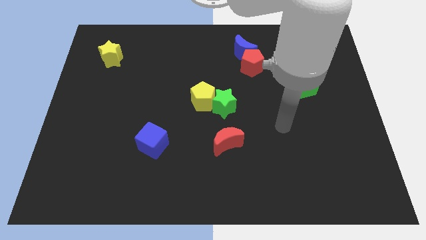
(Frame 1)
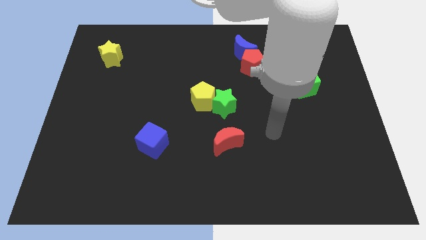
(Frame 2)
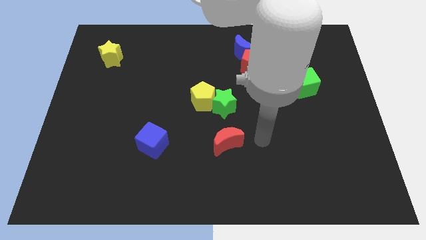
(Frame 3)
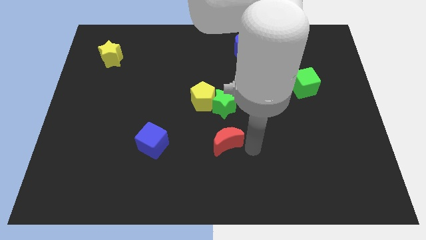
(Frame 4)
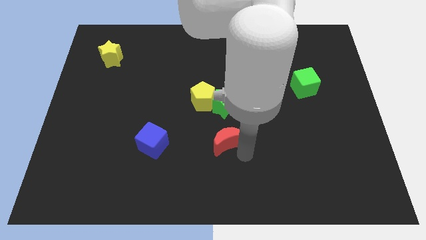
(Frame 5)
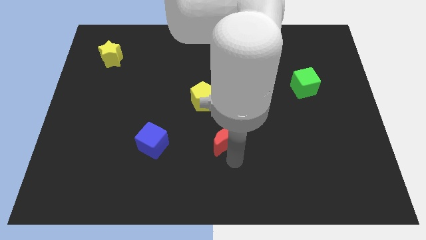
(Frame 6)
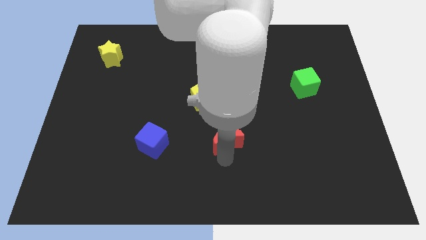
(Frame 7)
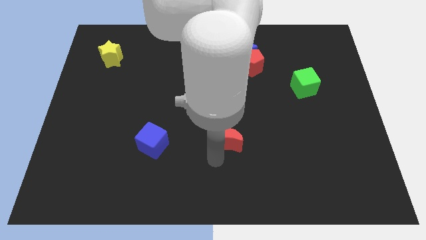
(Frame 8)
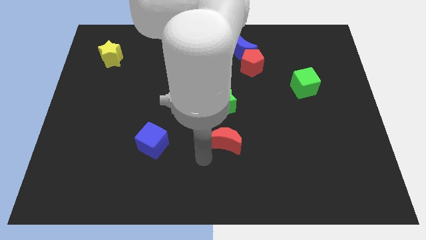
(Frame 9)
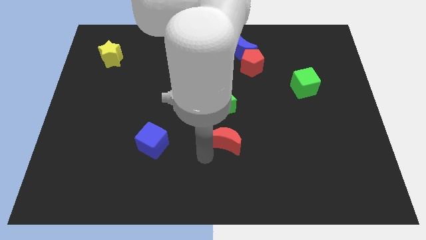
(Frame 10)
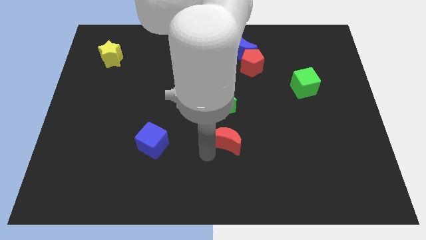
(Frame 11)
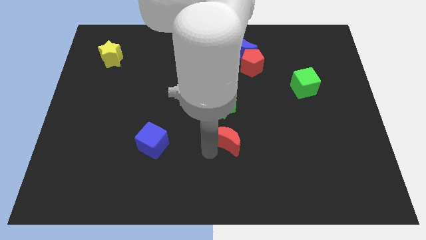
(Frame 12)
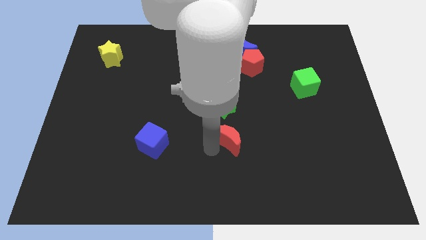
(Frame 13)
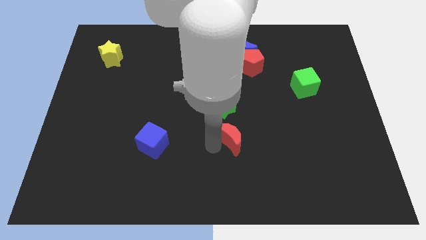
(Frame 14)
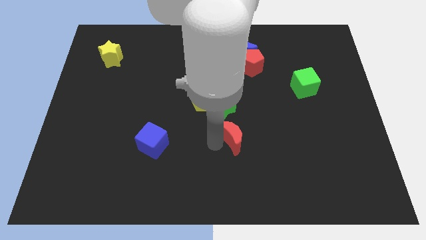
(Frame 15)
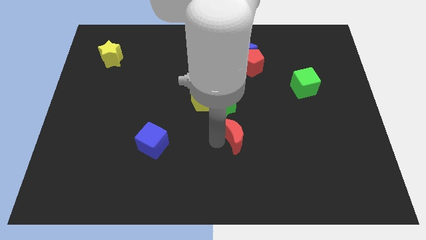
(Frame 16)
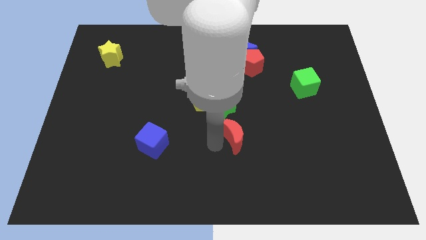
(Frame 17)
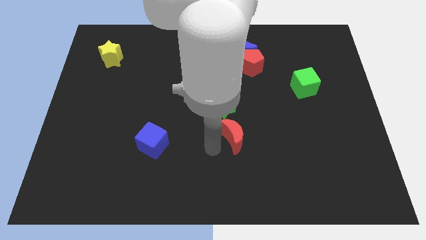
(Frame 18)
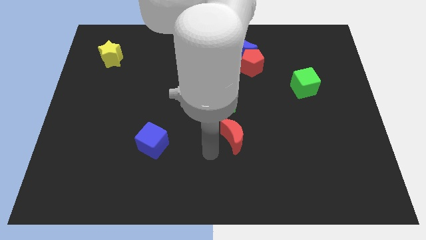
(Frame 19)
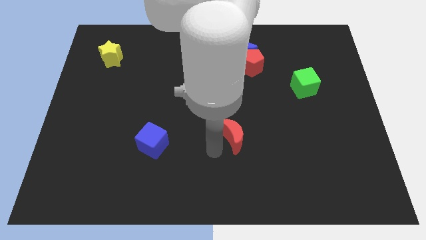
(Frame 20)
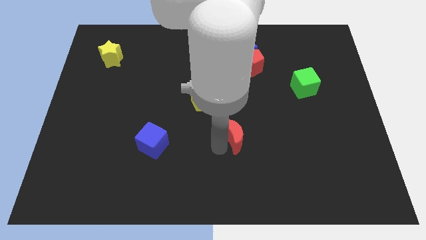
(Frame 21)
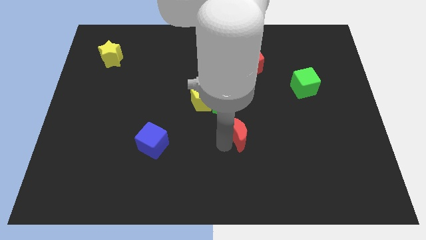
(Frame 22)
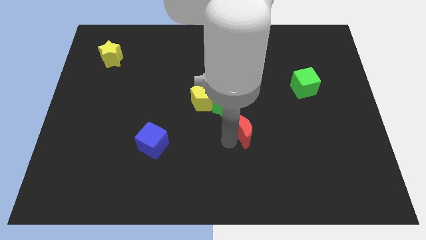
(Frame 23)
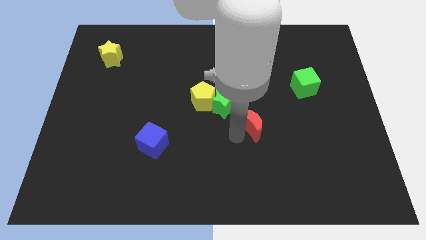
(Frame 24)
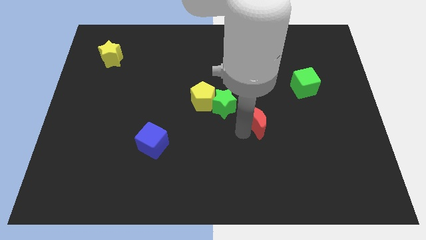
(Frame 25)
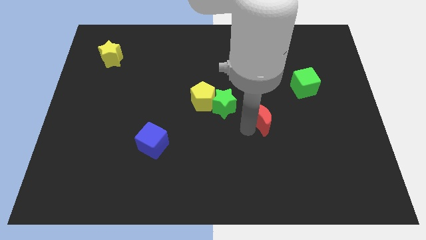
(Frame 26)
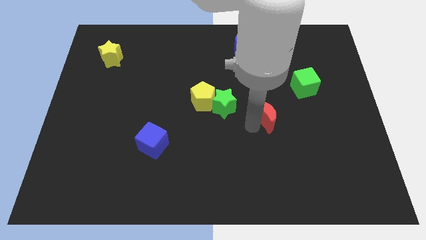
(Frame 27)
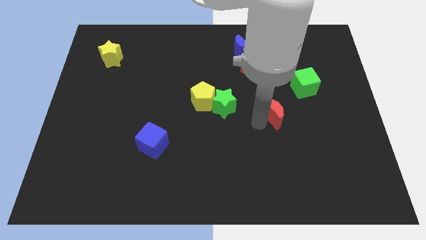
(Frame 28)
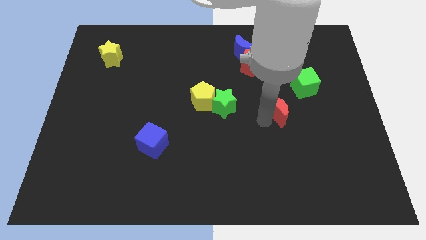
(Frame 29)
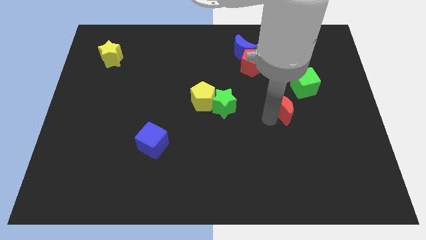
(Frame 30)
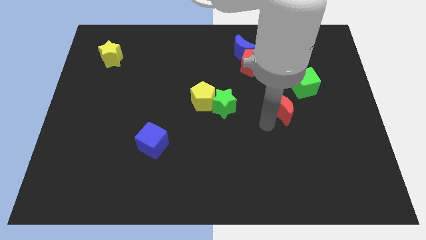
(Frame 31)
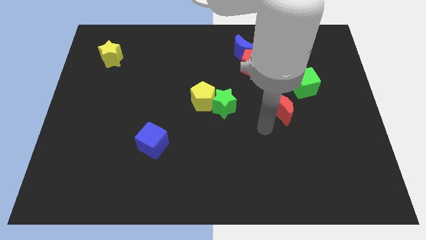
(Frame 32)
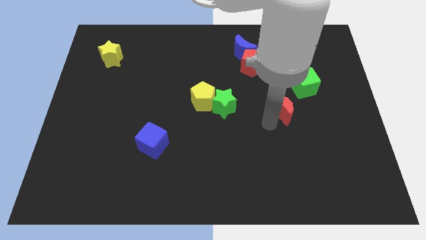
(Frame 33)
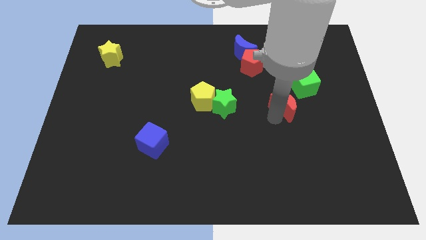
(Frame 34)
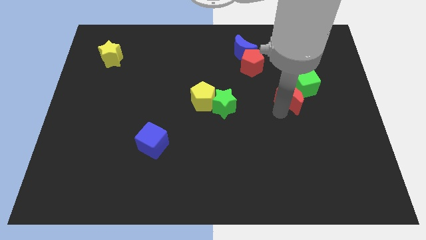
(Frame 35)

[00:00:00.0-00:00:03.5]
slide the red moon close to the green cube

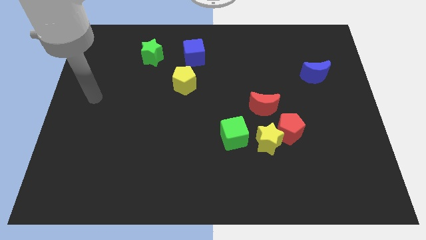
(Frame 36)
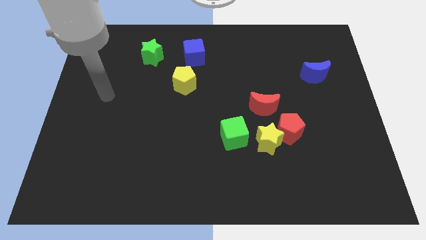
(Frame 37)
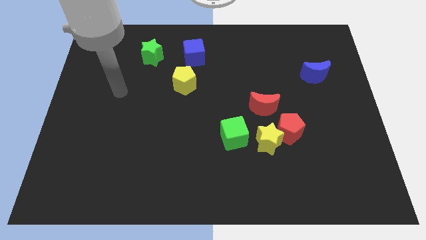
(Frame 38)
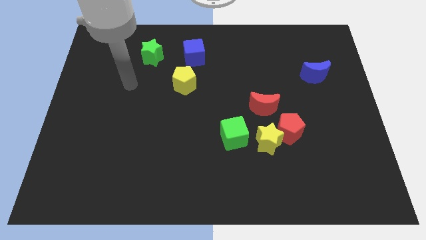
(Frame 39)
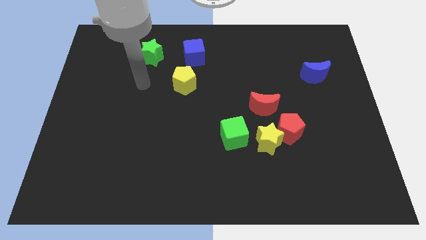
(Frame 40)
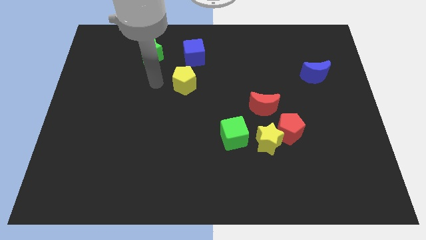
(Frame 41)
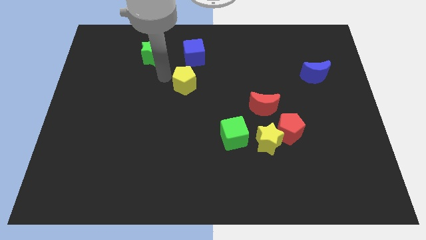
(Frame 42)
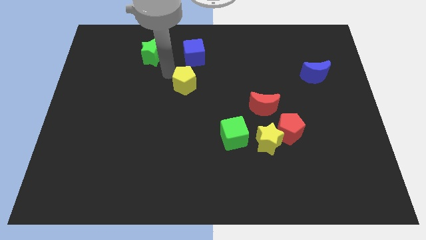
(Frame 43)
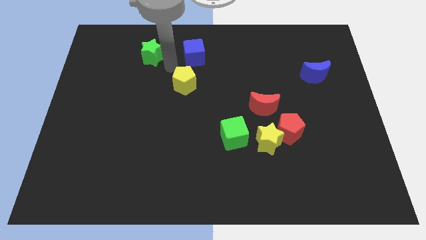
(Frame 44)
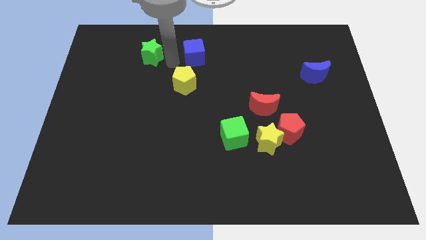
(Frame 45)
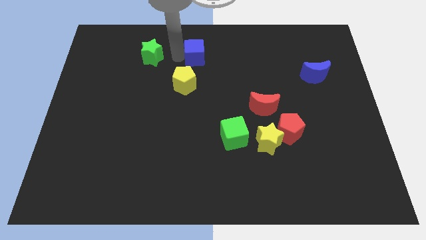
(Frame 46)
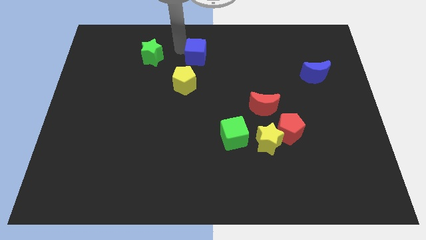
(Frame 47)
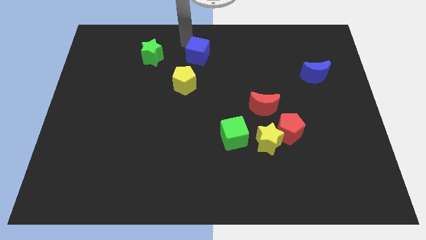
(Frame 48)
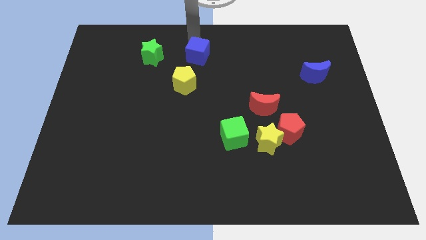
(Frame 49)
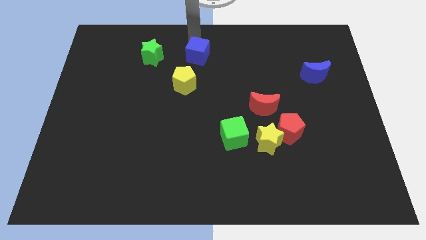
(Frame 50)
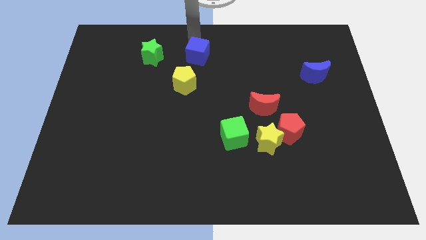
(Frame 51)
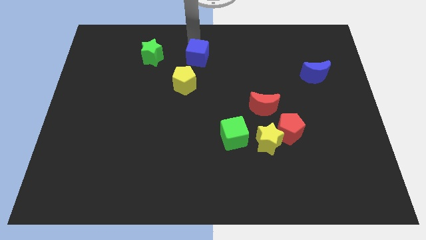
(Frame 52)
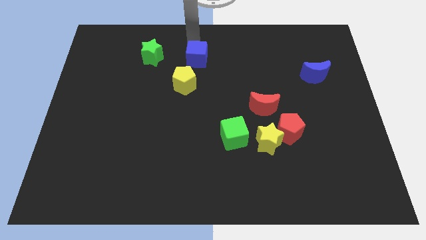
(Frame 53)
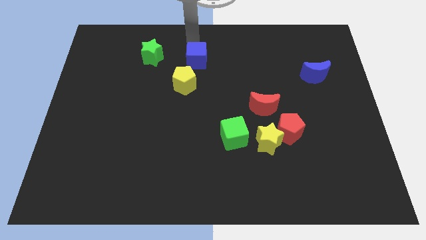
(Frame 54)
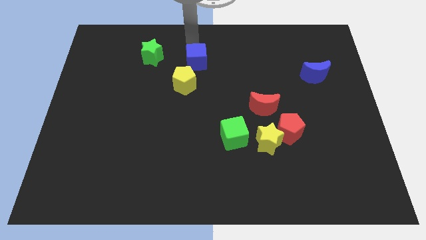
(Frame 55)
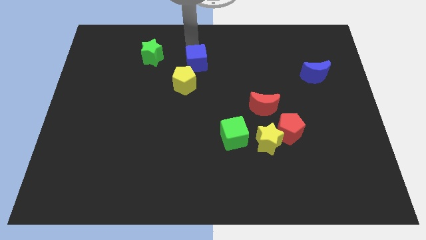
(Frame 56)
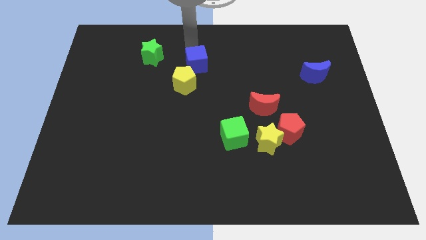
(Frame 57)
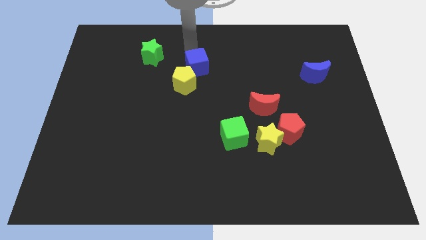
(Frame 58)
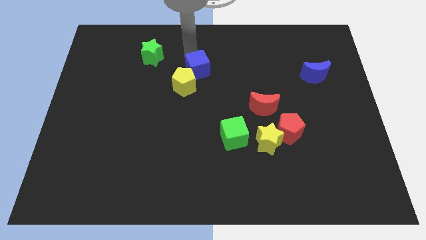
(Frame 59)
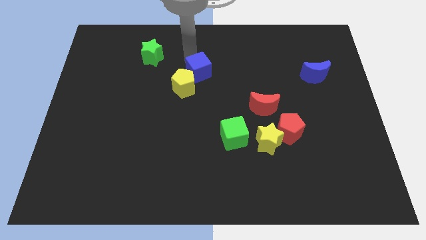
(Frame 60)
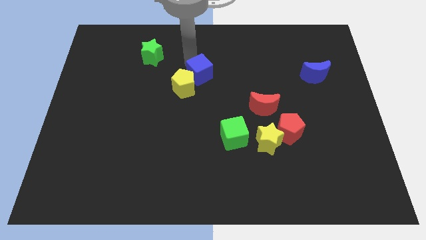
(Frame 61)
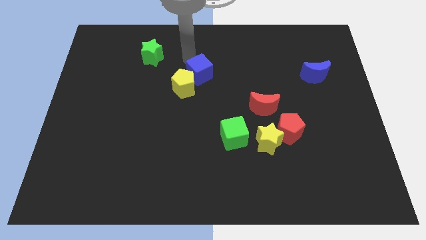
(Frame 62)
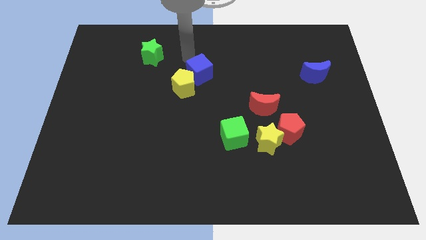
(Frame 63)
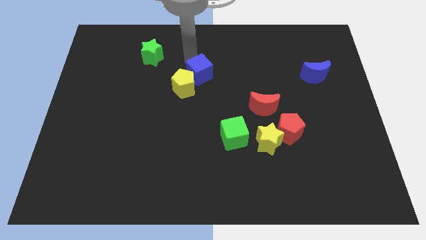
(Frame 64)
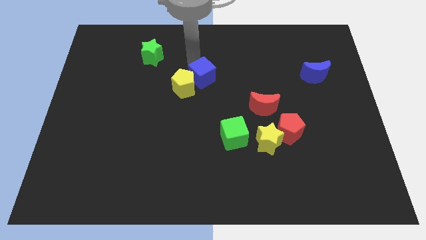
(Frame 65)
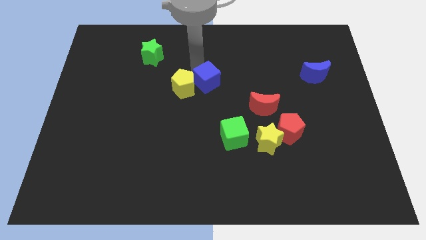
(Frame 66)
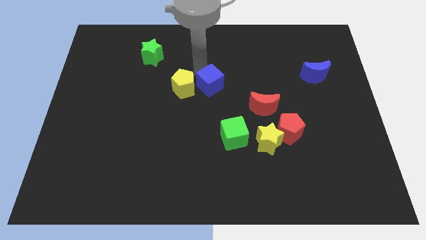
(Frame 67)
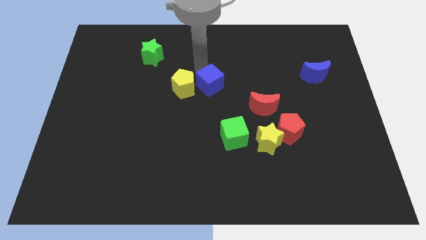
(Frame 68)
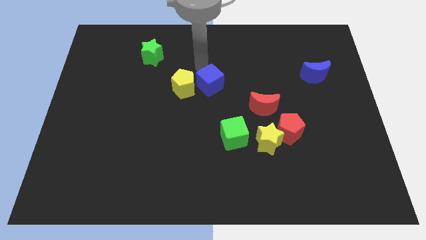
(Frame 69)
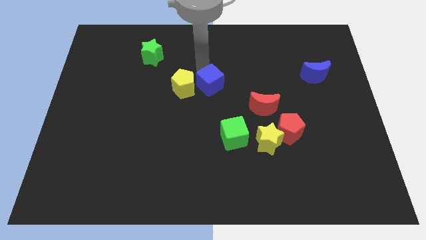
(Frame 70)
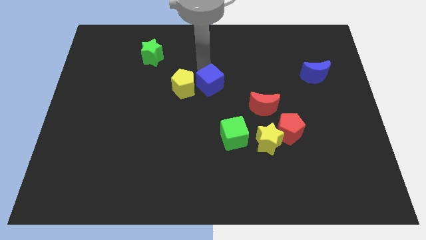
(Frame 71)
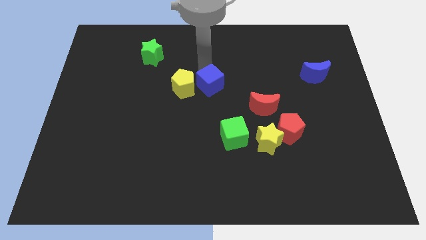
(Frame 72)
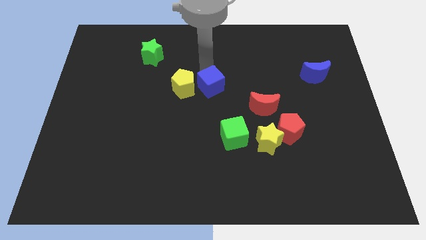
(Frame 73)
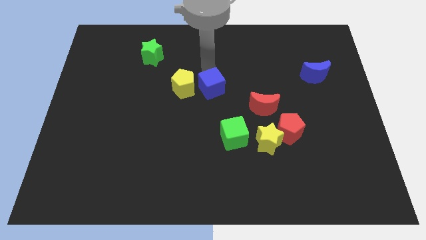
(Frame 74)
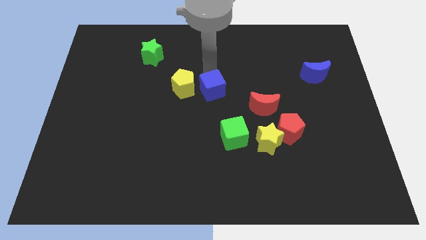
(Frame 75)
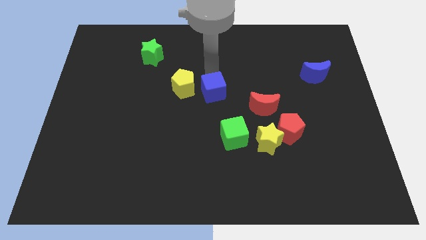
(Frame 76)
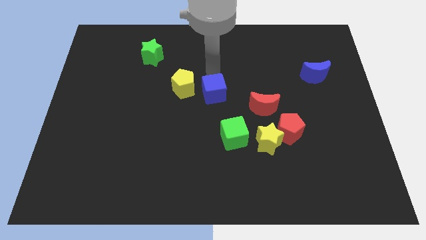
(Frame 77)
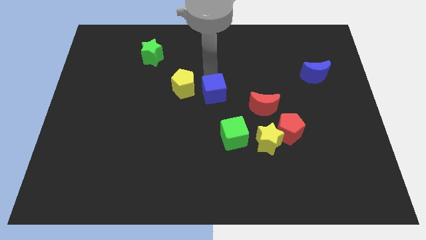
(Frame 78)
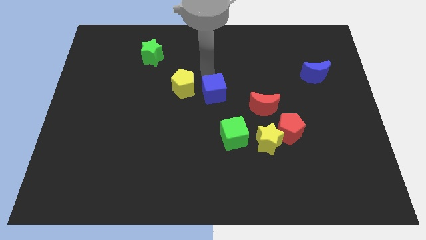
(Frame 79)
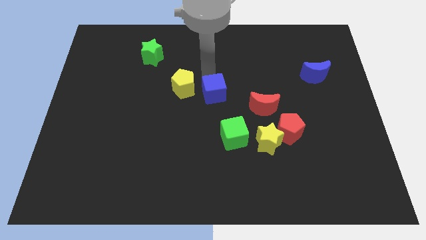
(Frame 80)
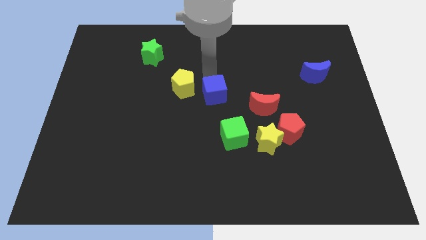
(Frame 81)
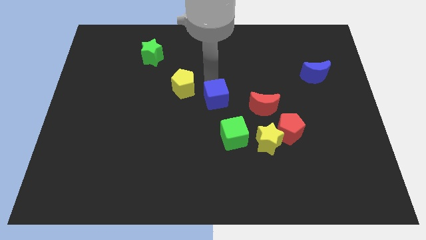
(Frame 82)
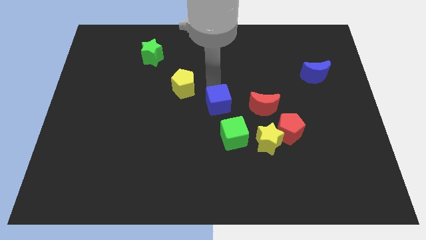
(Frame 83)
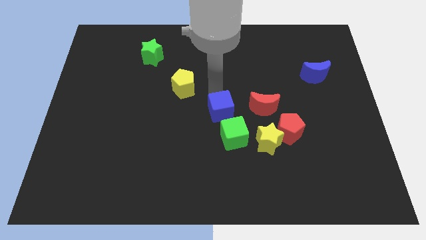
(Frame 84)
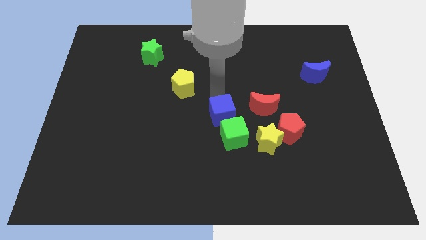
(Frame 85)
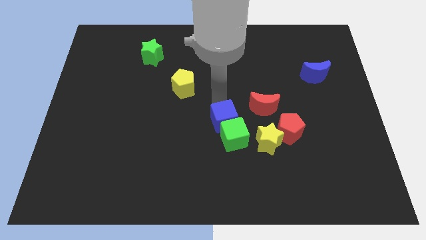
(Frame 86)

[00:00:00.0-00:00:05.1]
move the blue cube towards the green cube
